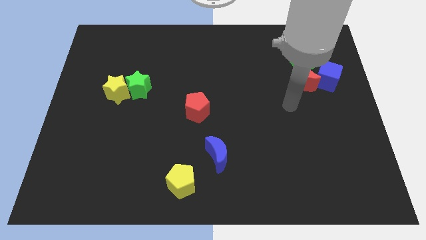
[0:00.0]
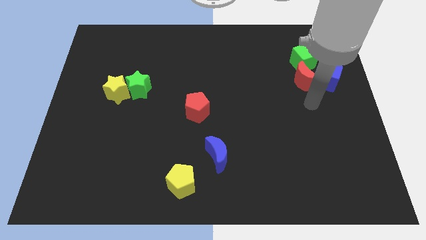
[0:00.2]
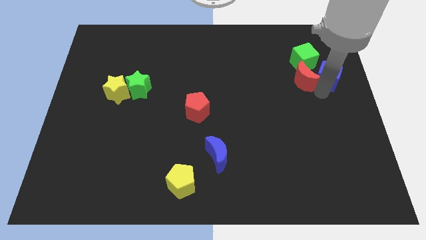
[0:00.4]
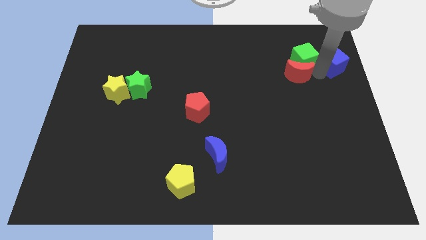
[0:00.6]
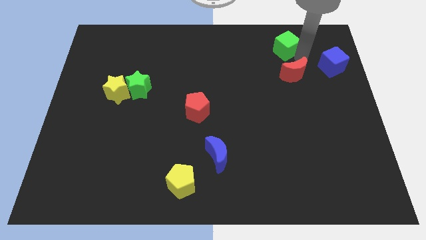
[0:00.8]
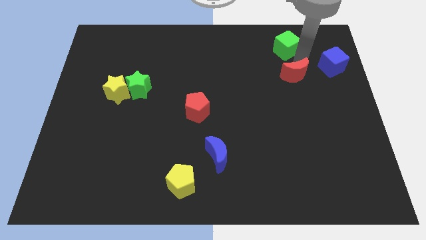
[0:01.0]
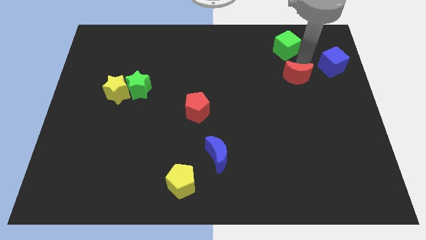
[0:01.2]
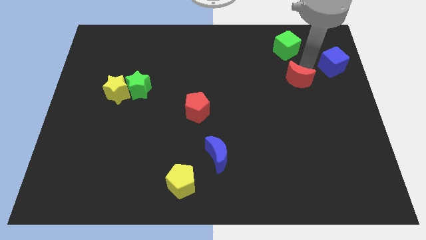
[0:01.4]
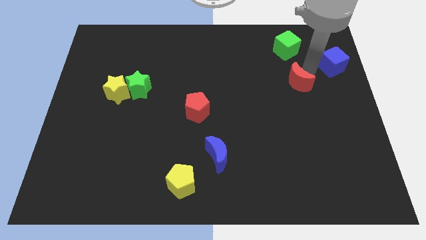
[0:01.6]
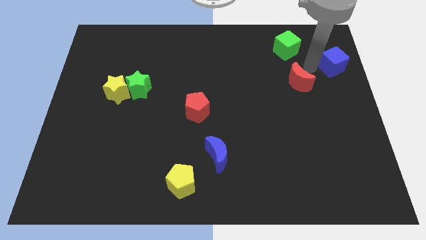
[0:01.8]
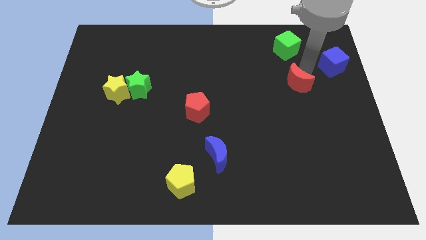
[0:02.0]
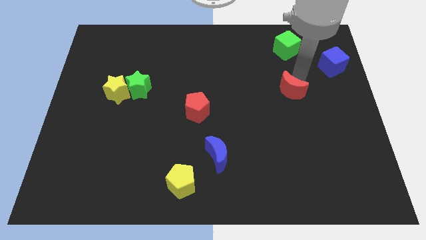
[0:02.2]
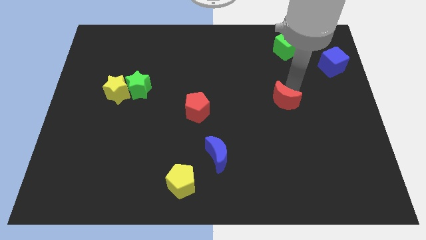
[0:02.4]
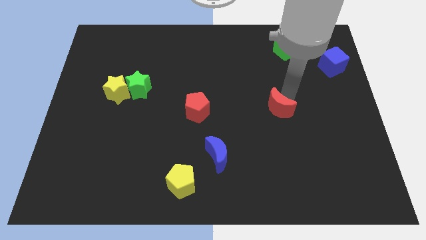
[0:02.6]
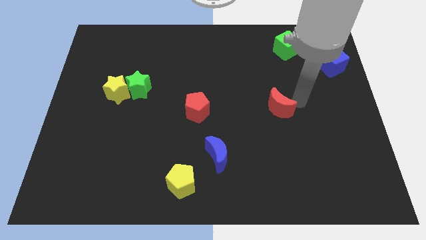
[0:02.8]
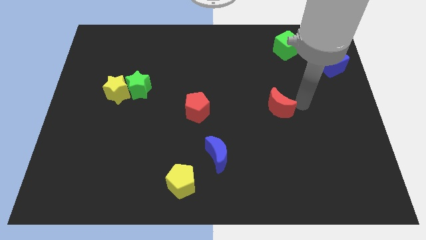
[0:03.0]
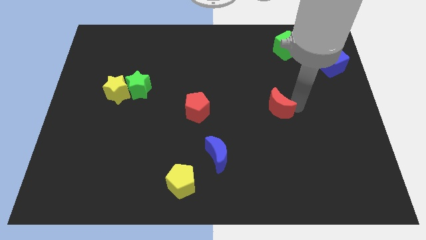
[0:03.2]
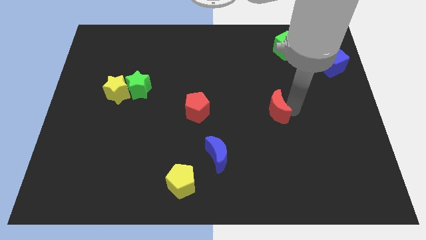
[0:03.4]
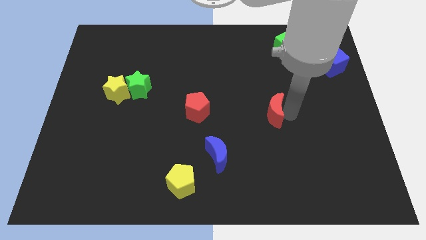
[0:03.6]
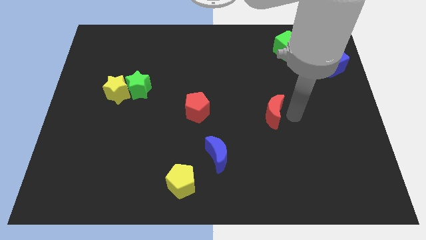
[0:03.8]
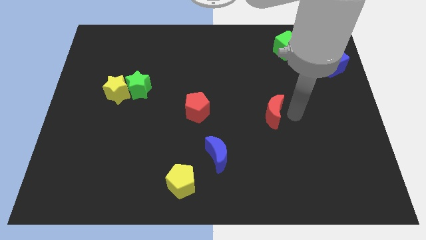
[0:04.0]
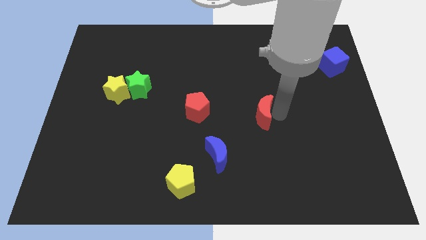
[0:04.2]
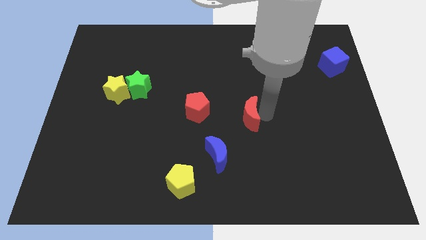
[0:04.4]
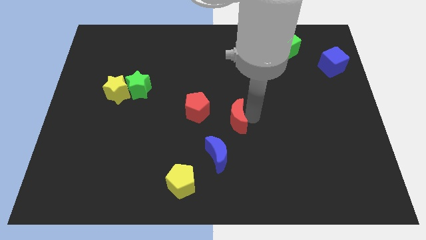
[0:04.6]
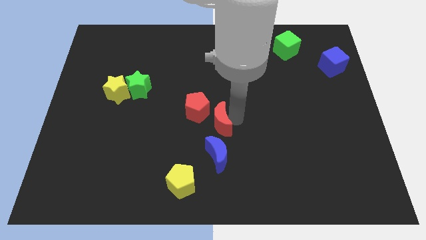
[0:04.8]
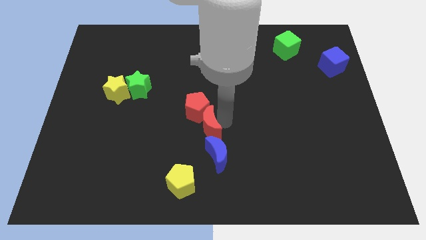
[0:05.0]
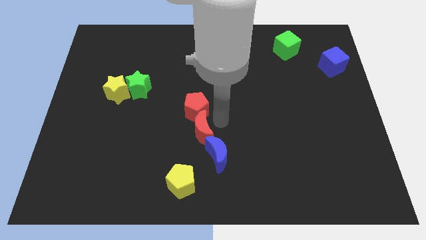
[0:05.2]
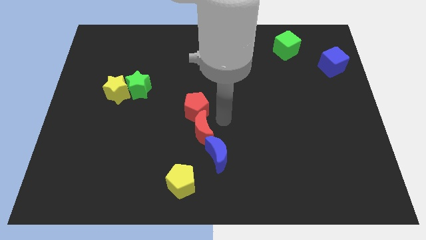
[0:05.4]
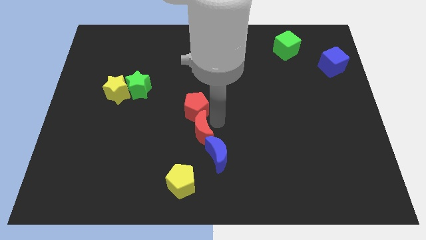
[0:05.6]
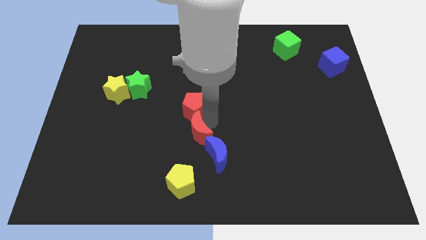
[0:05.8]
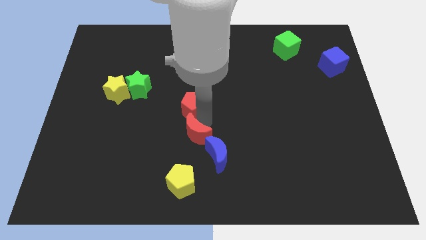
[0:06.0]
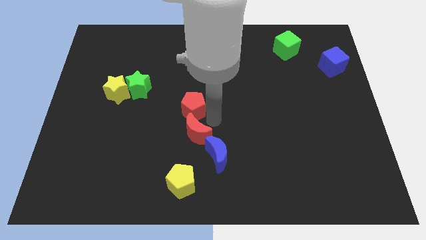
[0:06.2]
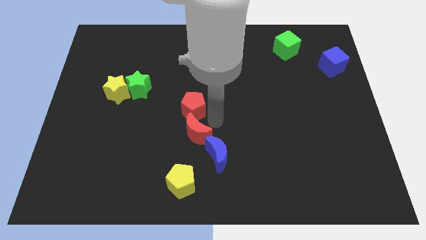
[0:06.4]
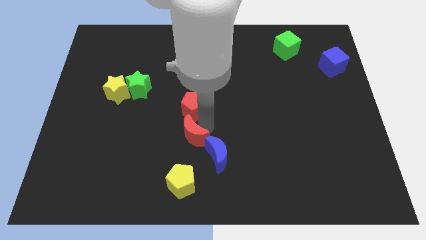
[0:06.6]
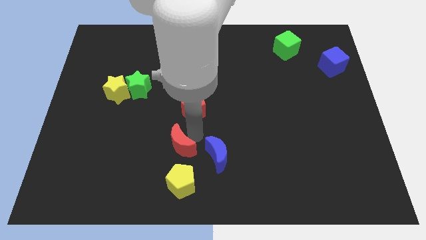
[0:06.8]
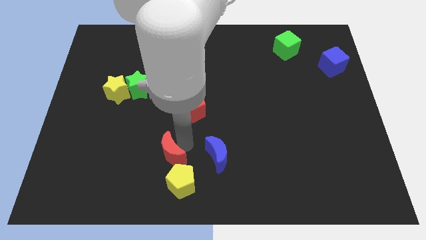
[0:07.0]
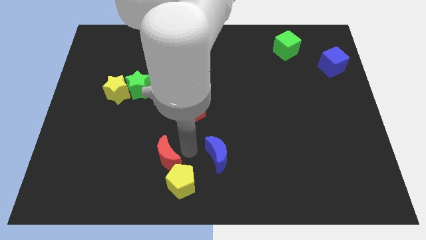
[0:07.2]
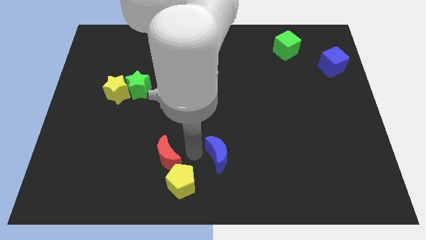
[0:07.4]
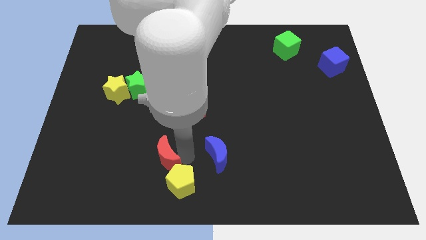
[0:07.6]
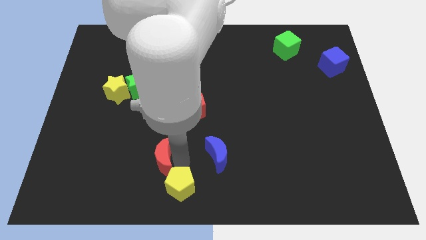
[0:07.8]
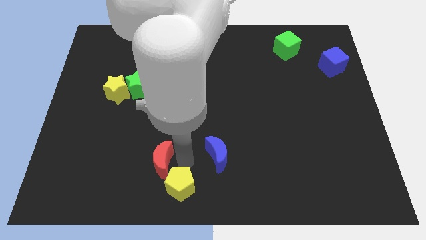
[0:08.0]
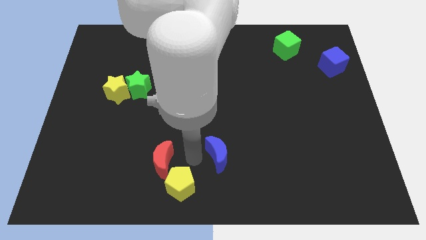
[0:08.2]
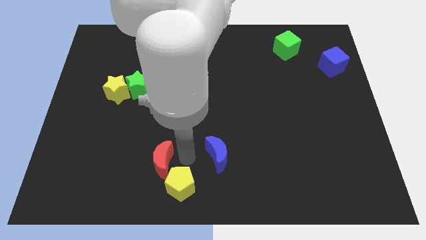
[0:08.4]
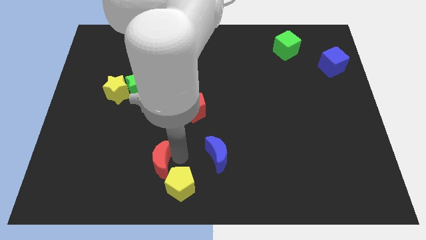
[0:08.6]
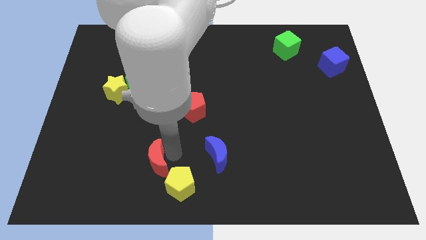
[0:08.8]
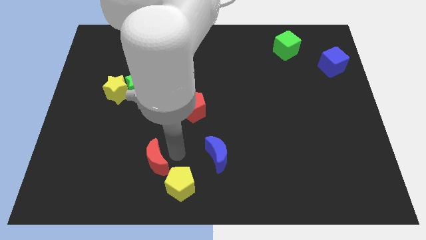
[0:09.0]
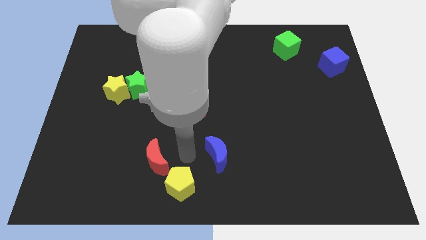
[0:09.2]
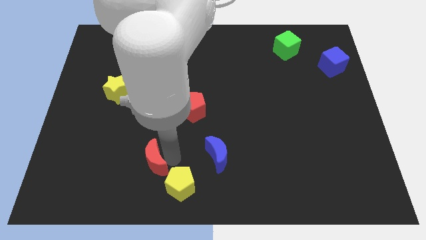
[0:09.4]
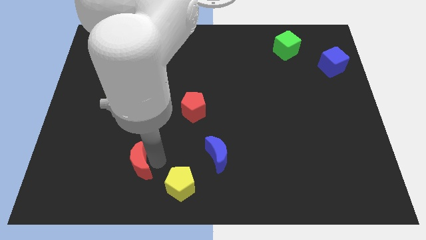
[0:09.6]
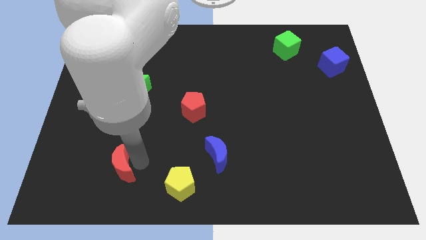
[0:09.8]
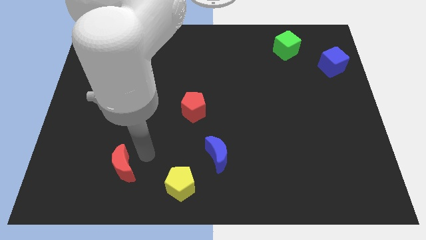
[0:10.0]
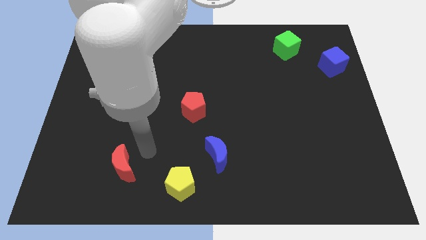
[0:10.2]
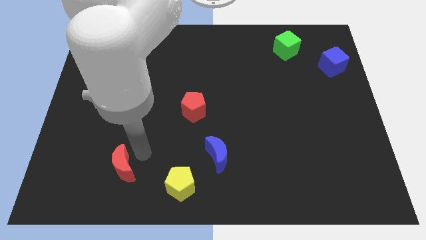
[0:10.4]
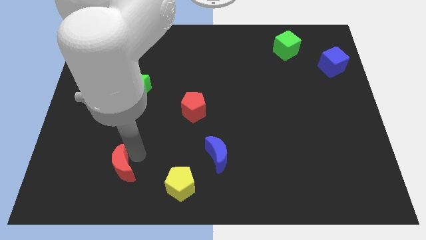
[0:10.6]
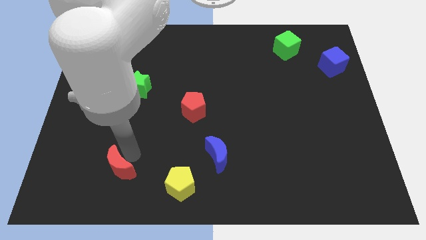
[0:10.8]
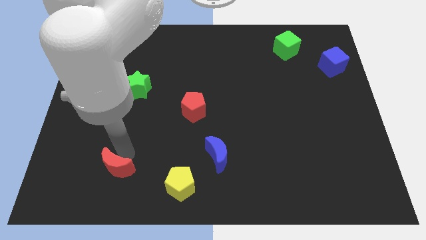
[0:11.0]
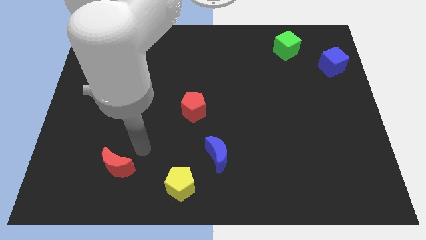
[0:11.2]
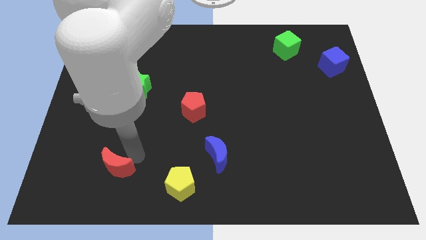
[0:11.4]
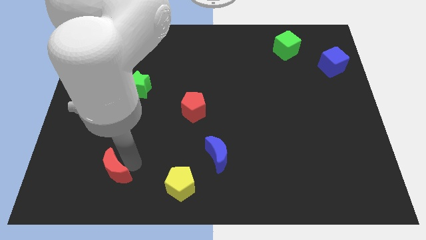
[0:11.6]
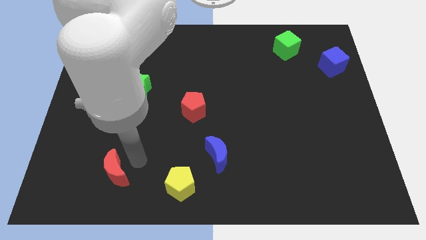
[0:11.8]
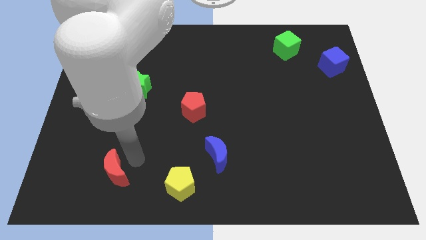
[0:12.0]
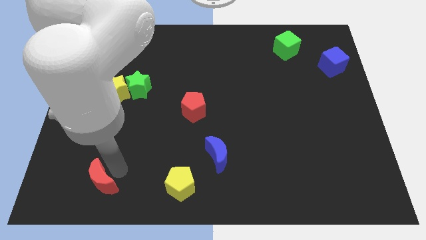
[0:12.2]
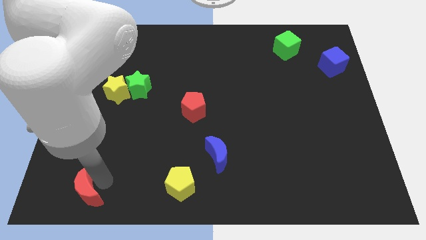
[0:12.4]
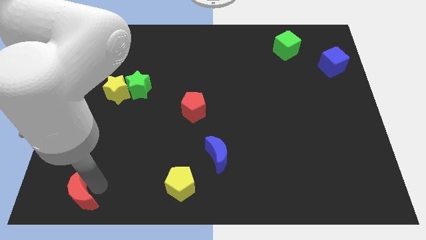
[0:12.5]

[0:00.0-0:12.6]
move the red moon to the lower left corner
